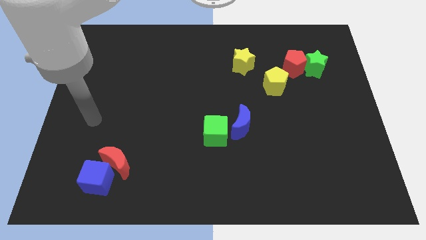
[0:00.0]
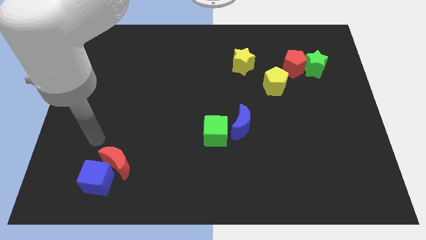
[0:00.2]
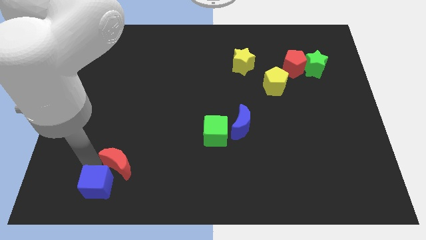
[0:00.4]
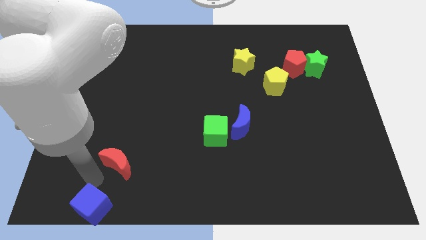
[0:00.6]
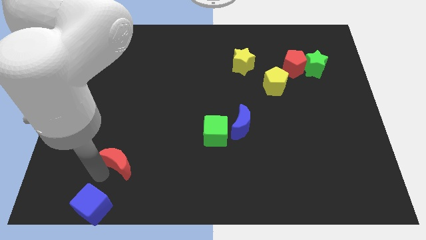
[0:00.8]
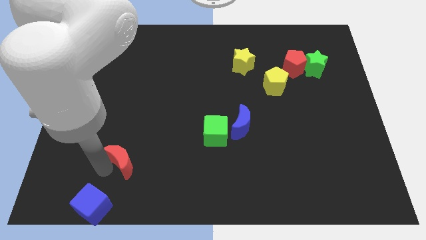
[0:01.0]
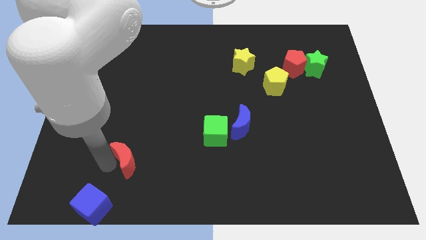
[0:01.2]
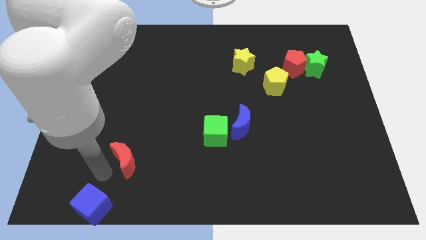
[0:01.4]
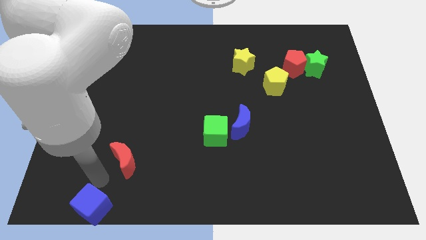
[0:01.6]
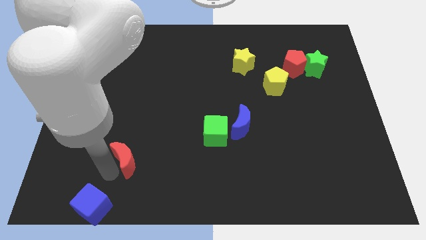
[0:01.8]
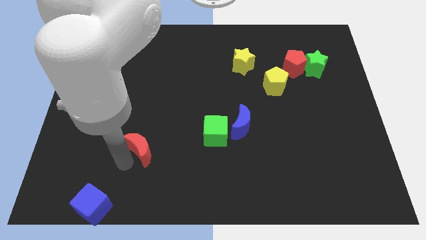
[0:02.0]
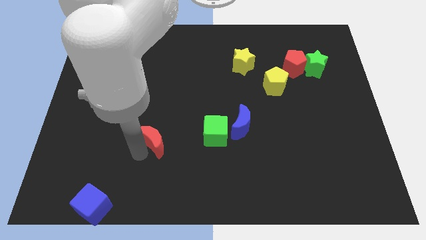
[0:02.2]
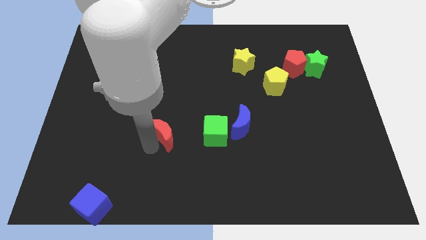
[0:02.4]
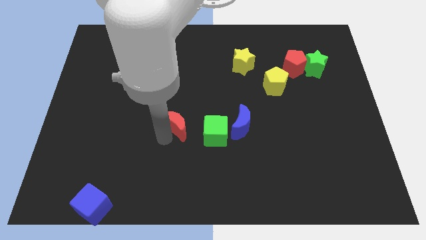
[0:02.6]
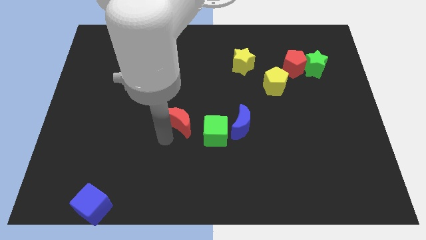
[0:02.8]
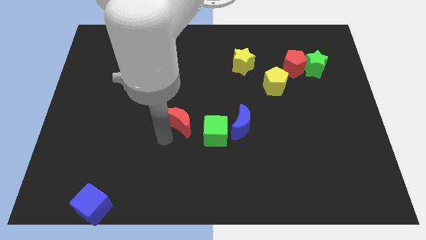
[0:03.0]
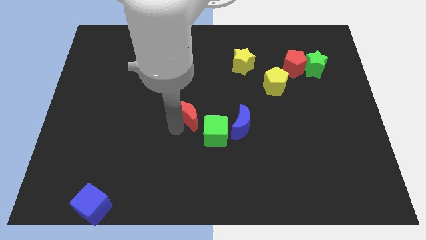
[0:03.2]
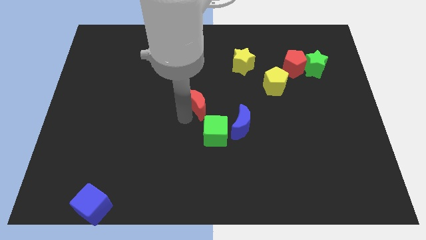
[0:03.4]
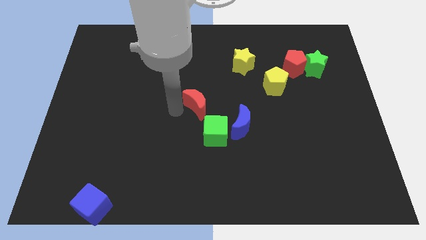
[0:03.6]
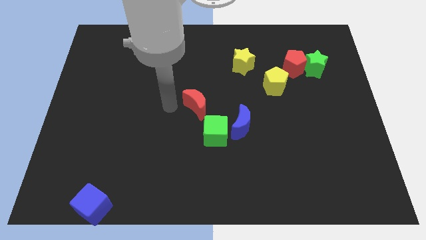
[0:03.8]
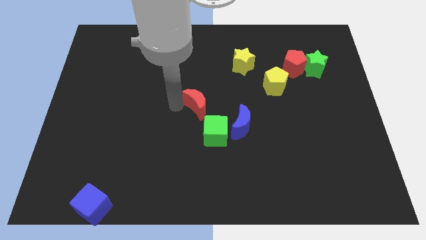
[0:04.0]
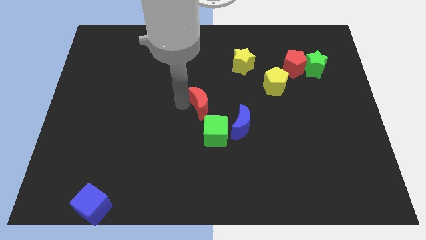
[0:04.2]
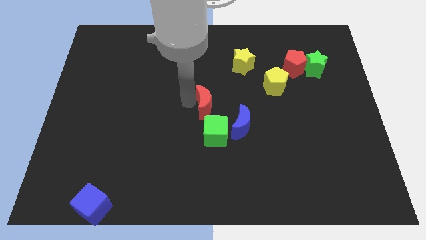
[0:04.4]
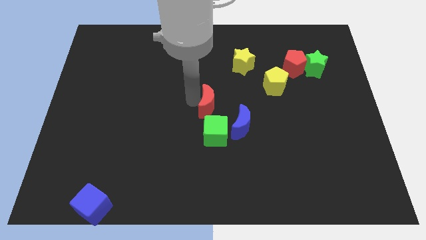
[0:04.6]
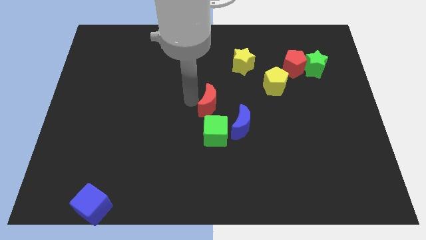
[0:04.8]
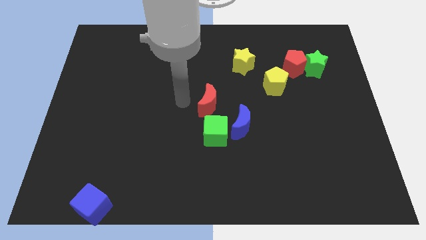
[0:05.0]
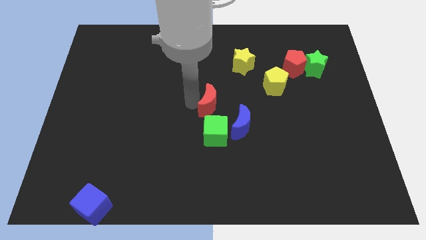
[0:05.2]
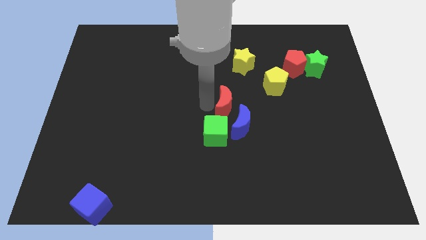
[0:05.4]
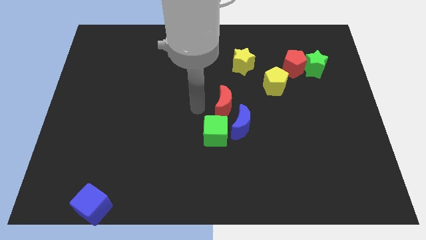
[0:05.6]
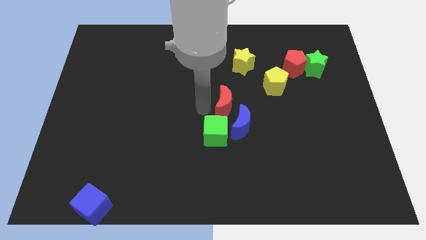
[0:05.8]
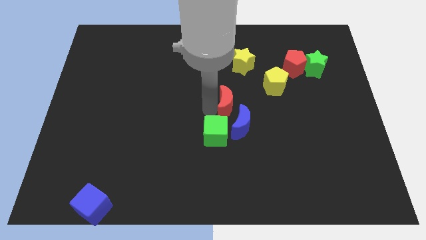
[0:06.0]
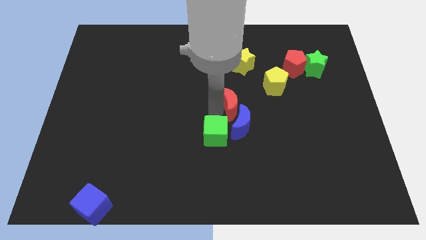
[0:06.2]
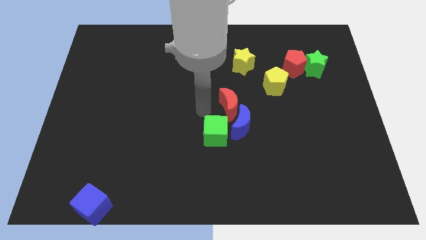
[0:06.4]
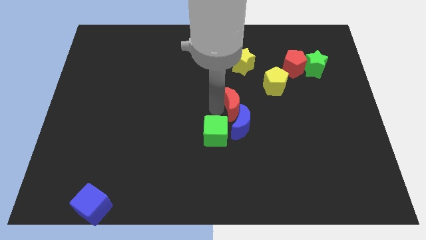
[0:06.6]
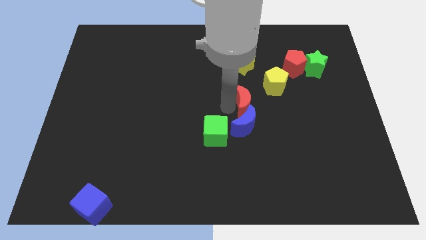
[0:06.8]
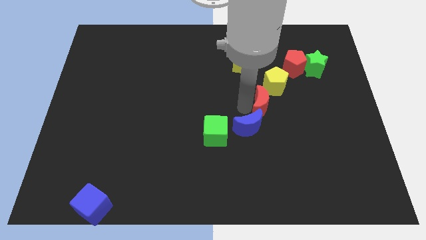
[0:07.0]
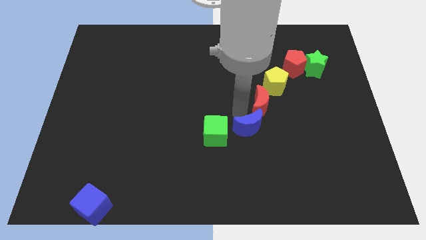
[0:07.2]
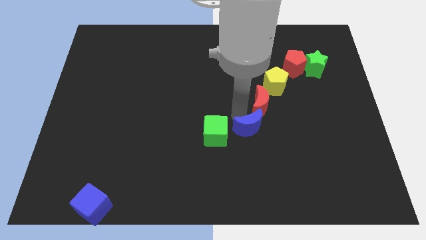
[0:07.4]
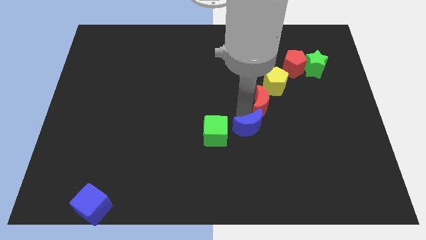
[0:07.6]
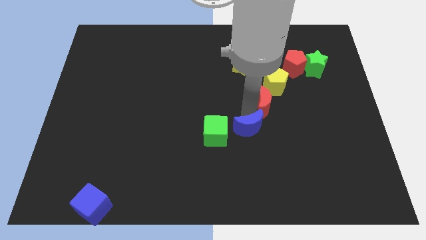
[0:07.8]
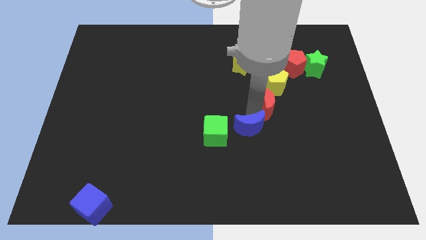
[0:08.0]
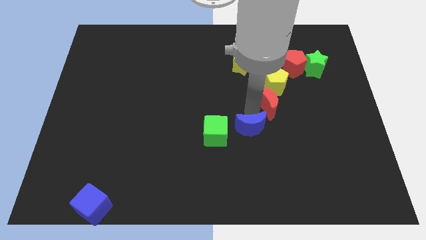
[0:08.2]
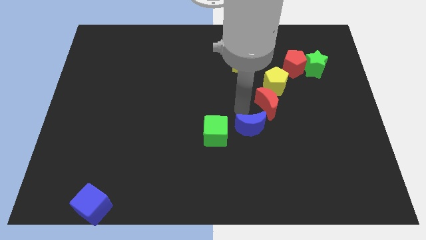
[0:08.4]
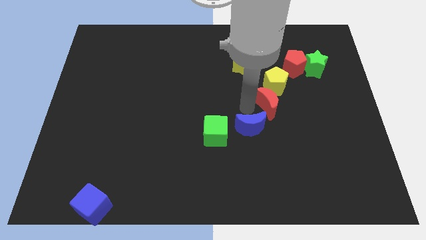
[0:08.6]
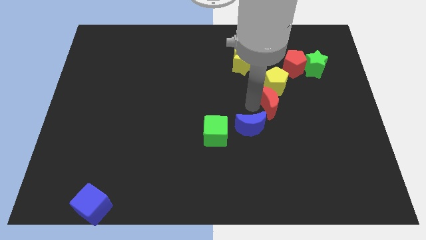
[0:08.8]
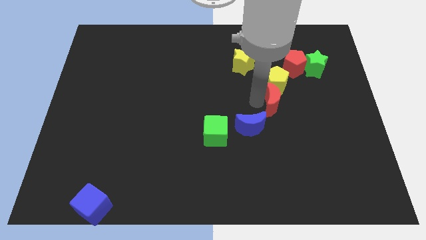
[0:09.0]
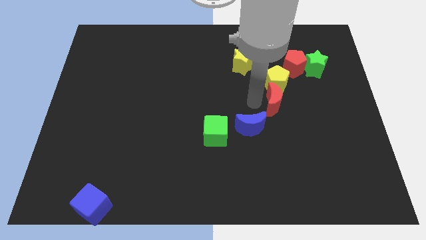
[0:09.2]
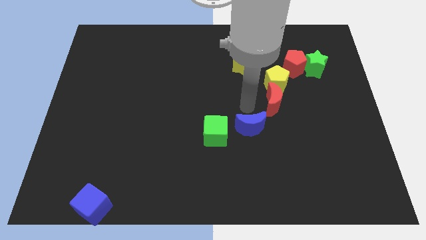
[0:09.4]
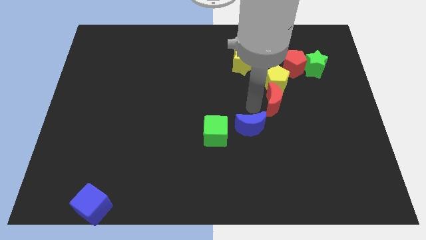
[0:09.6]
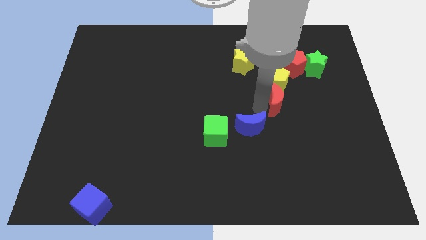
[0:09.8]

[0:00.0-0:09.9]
put the red moon to the bottom right of the yellow pentagon

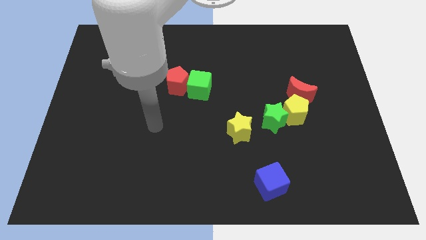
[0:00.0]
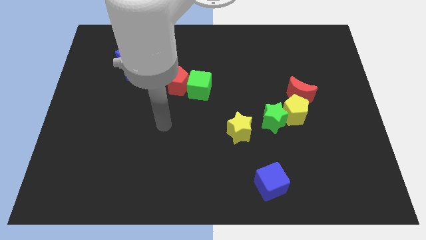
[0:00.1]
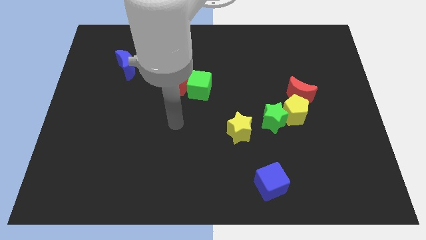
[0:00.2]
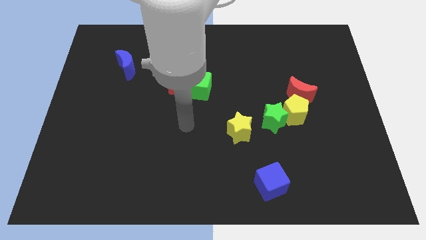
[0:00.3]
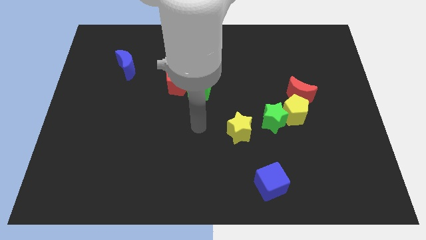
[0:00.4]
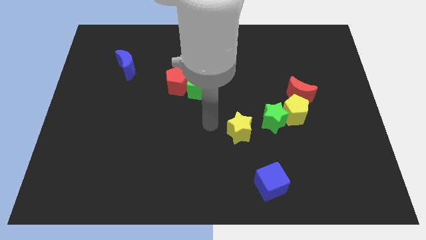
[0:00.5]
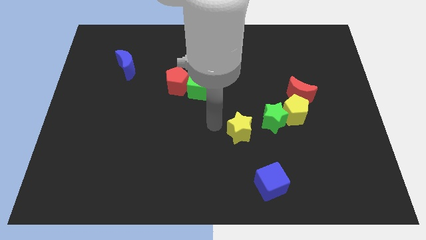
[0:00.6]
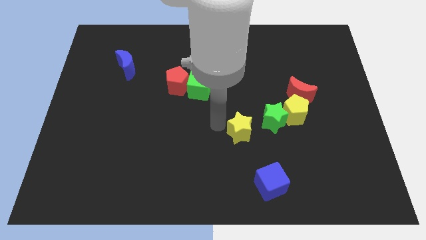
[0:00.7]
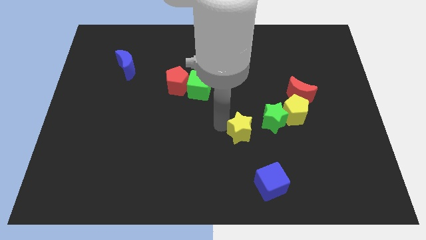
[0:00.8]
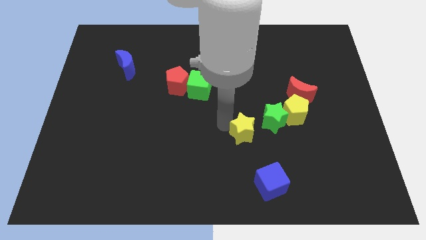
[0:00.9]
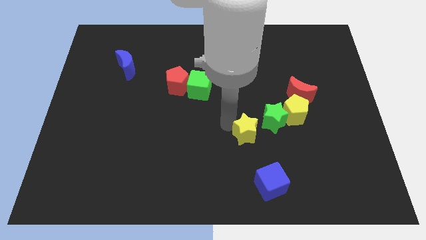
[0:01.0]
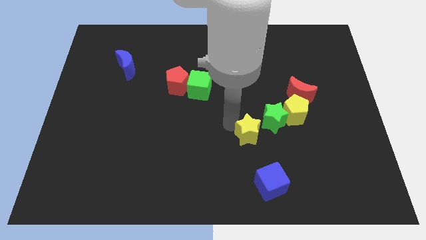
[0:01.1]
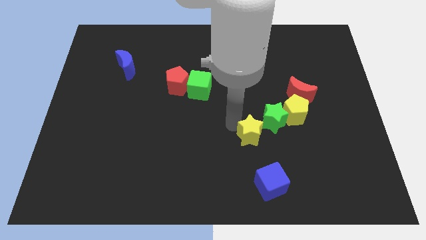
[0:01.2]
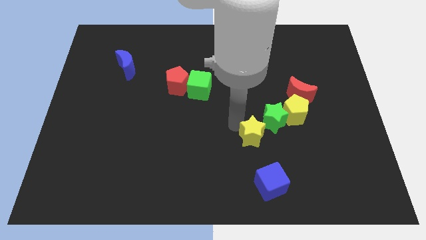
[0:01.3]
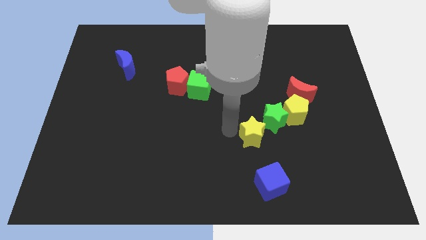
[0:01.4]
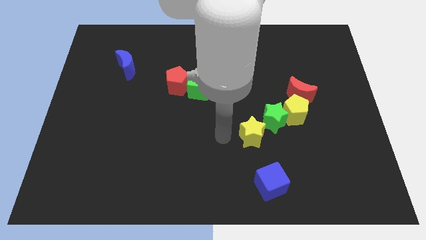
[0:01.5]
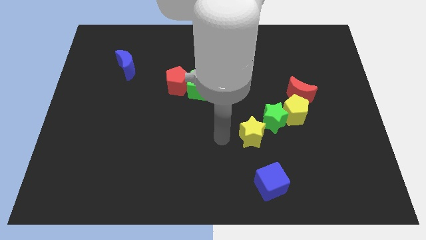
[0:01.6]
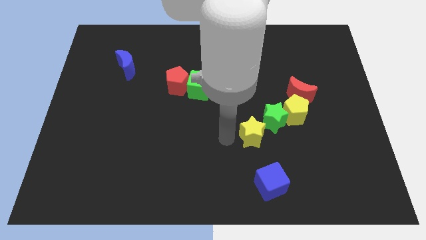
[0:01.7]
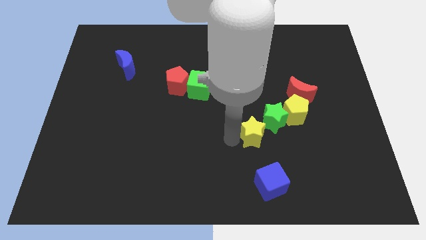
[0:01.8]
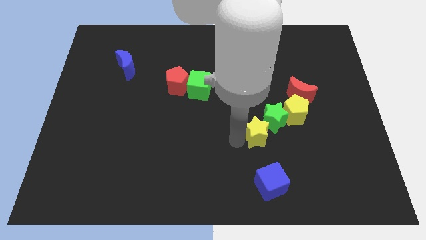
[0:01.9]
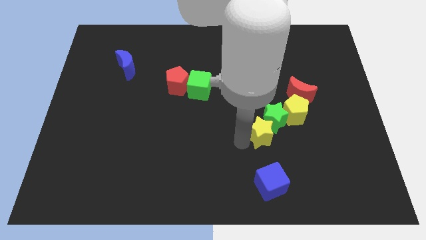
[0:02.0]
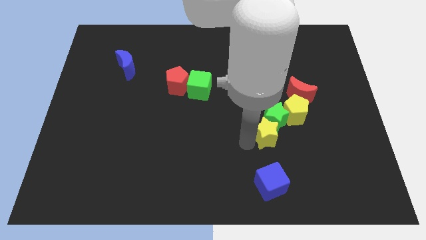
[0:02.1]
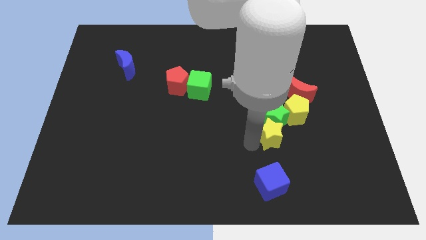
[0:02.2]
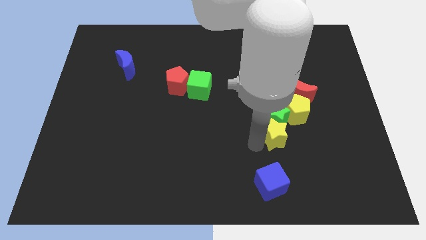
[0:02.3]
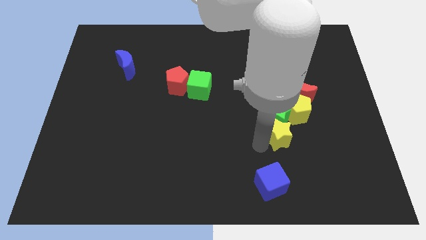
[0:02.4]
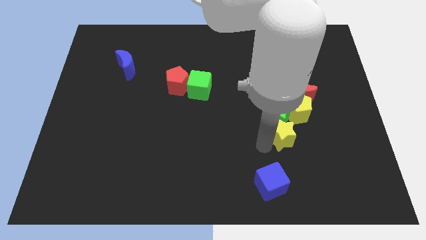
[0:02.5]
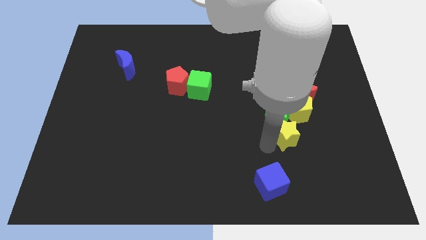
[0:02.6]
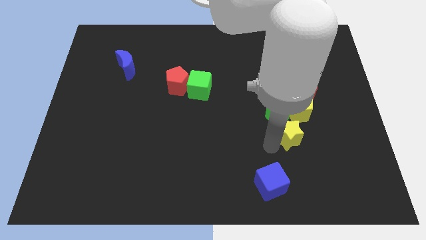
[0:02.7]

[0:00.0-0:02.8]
push the yellow star to the bottom side of the red moon

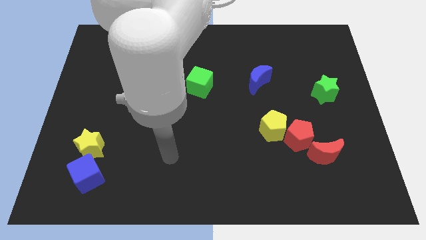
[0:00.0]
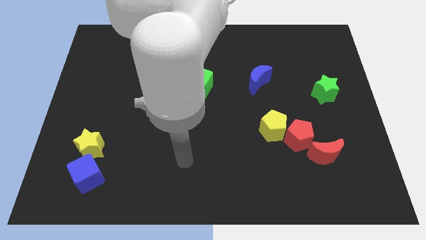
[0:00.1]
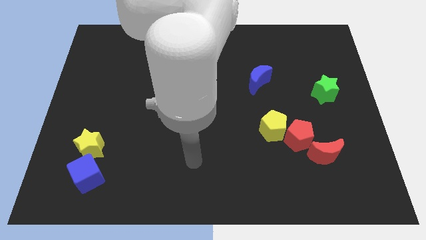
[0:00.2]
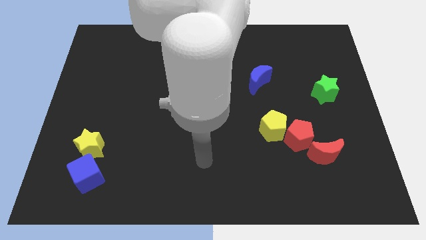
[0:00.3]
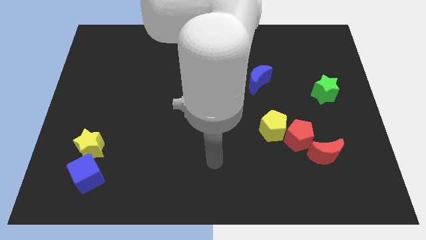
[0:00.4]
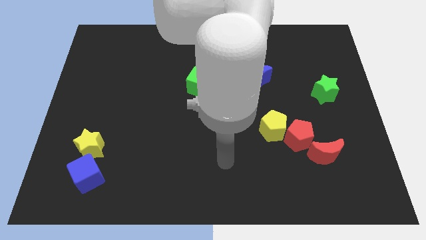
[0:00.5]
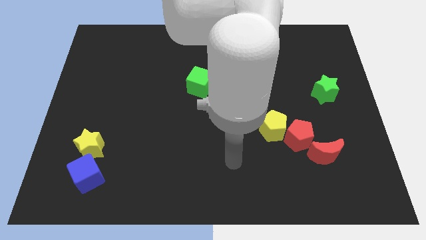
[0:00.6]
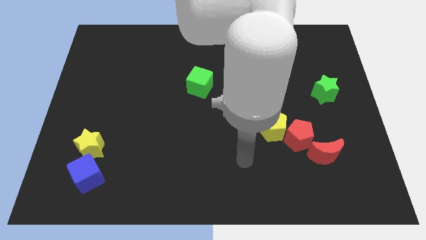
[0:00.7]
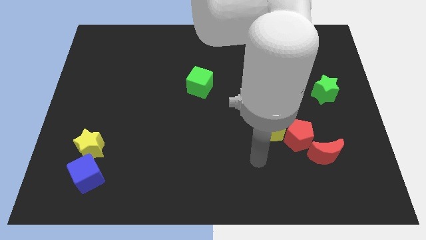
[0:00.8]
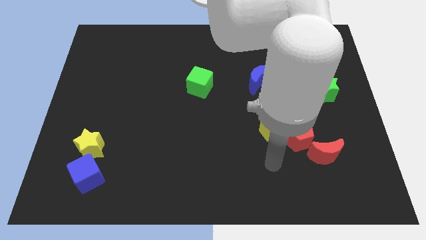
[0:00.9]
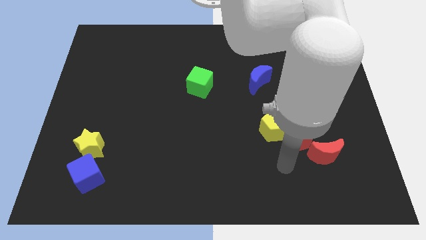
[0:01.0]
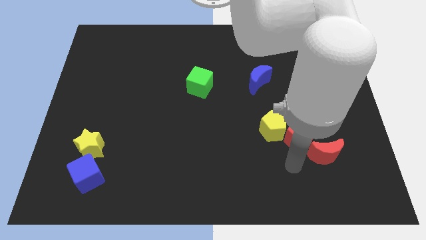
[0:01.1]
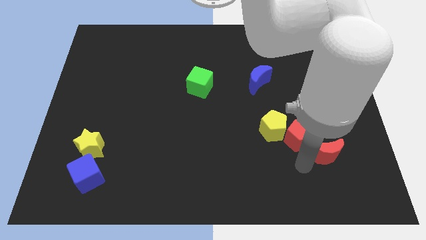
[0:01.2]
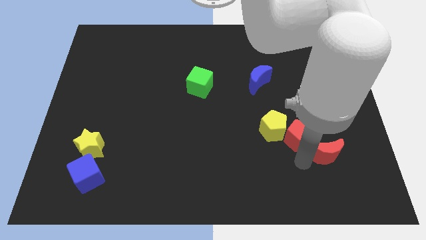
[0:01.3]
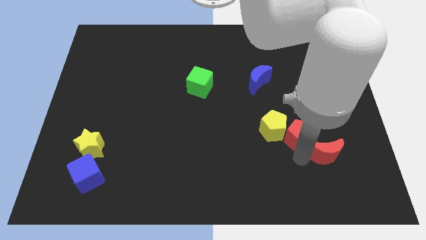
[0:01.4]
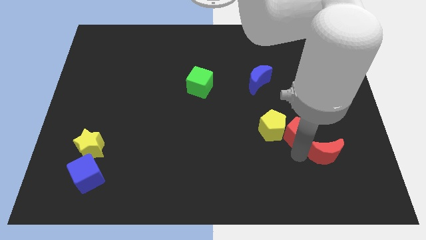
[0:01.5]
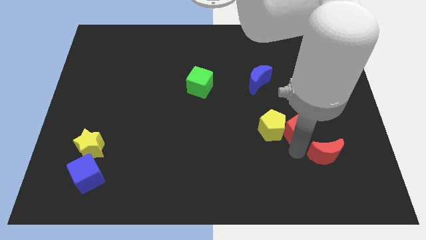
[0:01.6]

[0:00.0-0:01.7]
slide the red pentagon diagonally up and to the right of the yellow pentagon
